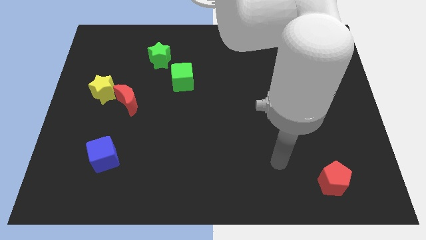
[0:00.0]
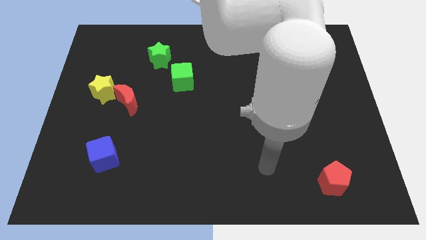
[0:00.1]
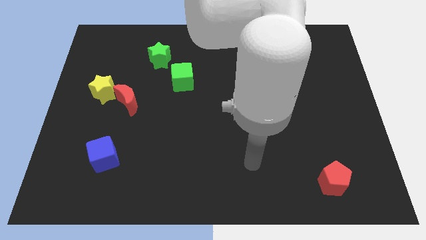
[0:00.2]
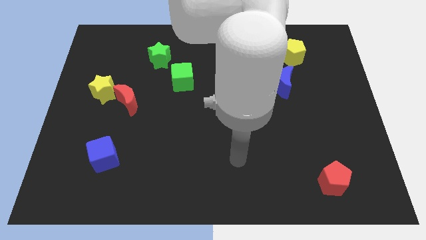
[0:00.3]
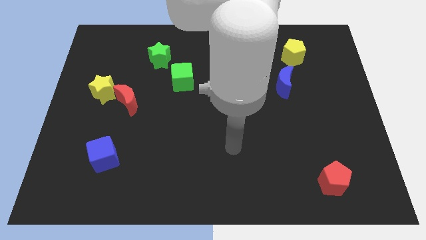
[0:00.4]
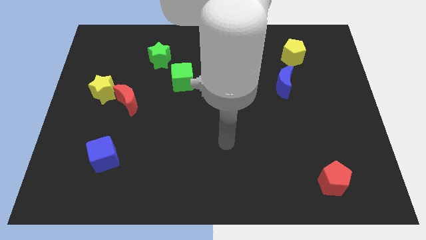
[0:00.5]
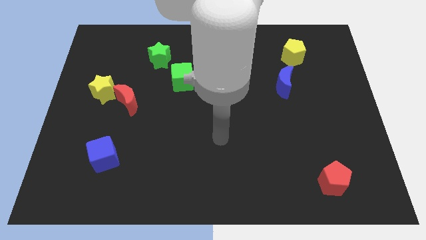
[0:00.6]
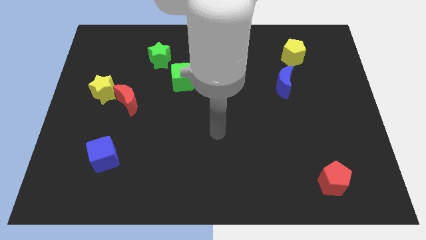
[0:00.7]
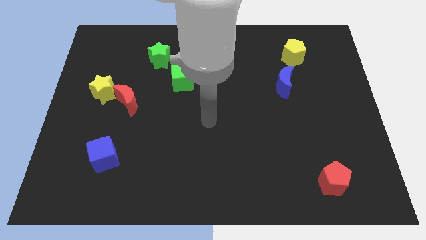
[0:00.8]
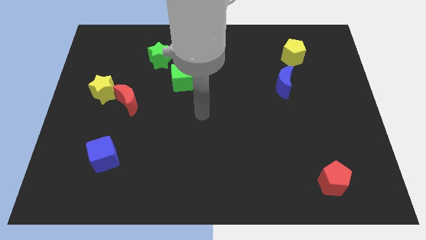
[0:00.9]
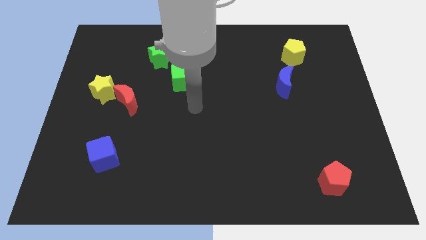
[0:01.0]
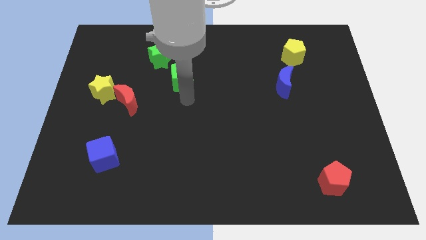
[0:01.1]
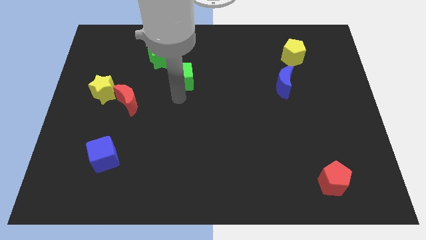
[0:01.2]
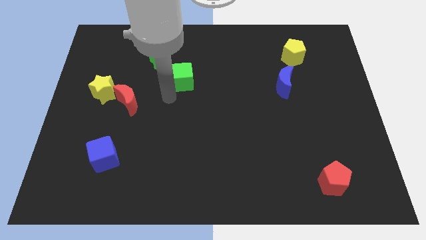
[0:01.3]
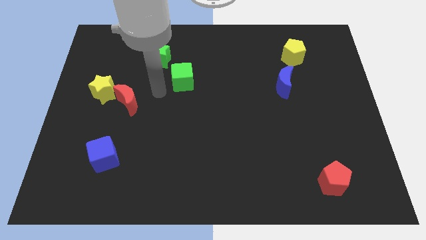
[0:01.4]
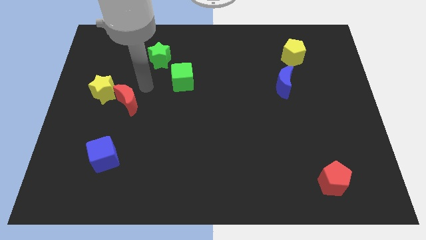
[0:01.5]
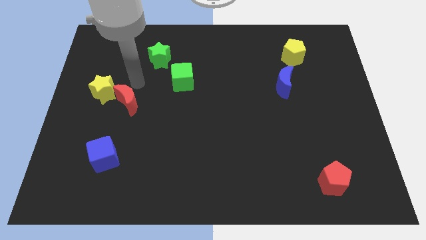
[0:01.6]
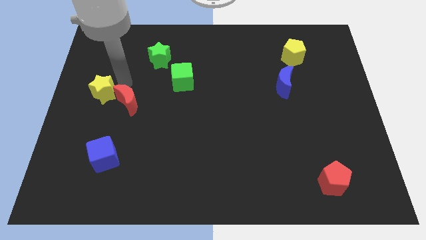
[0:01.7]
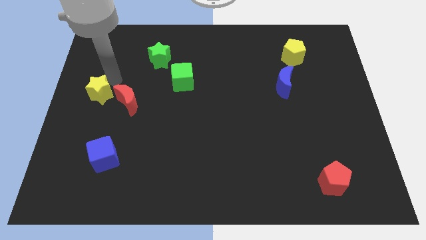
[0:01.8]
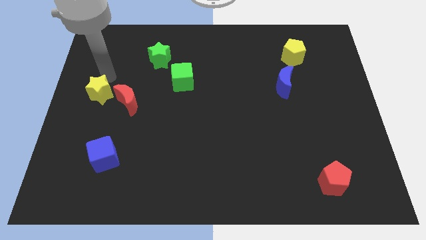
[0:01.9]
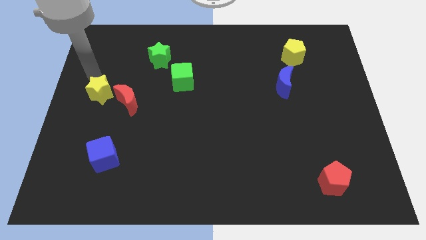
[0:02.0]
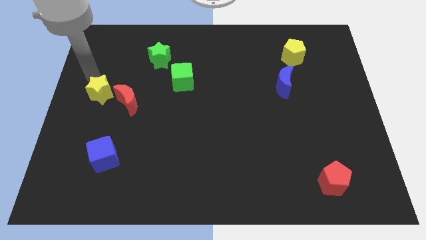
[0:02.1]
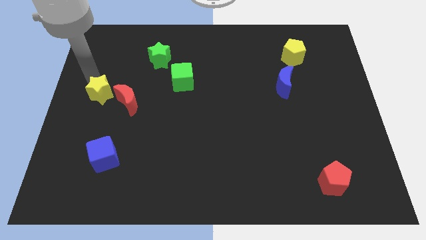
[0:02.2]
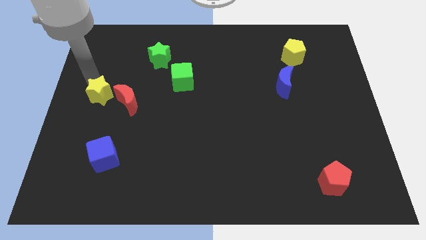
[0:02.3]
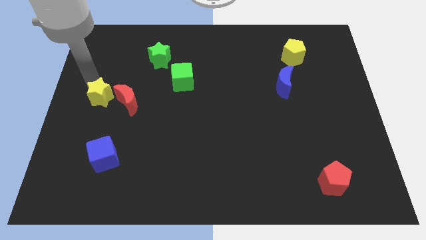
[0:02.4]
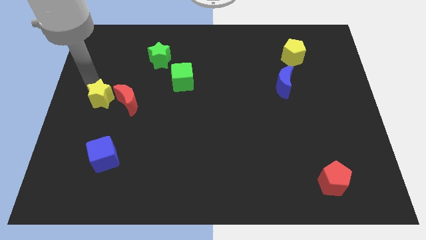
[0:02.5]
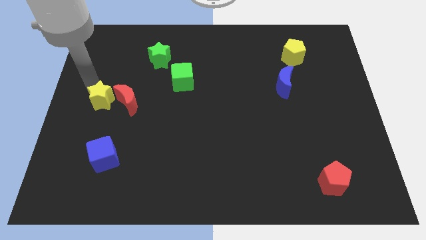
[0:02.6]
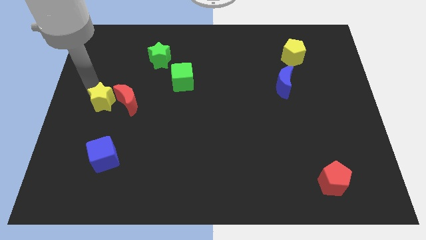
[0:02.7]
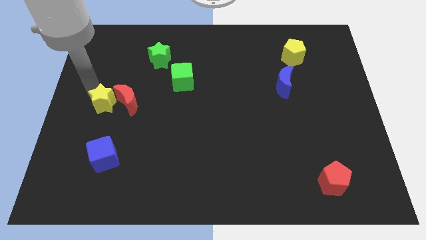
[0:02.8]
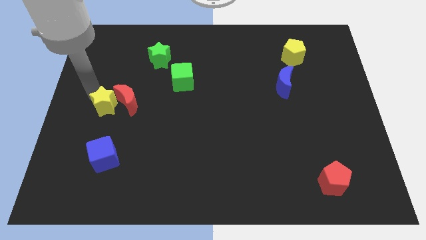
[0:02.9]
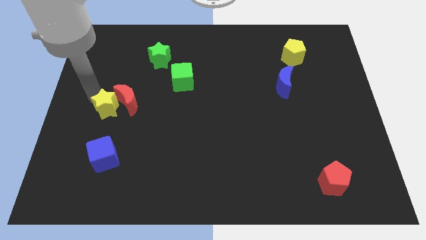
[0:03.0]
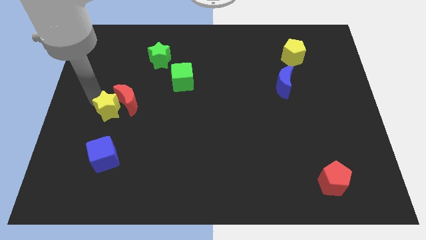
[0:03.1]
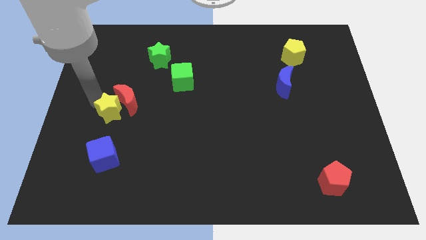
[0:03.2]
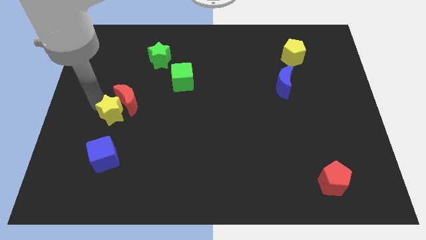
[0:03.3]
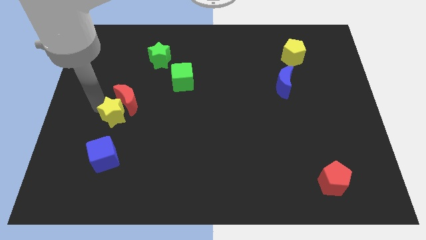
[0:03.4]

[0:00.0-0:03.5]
push the yellow star downwards and right slightly

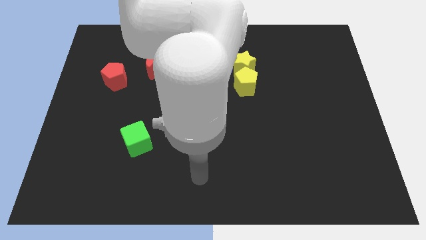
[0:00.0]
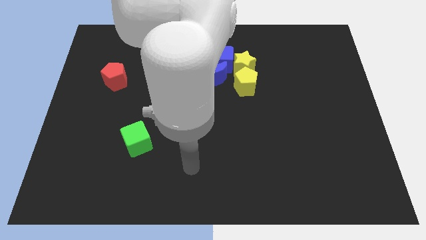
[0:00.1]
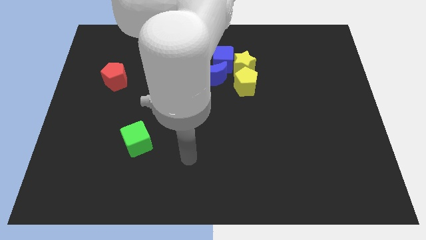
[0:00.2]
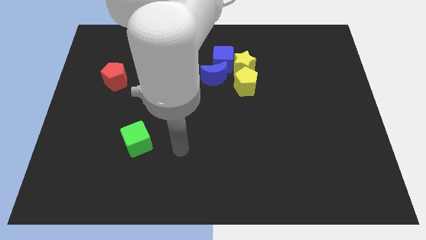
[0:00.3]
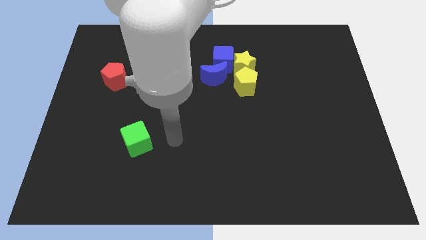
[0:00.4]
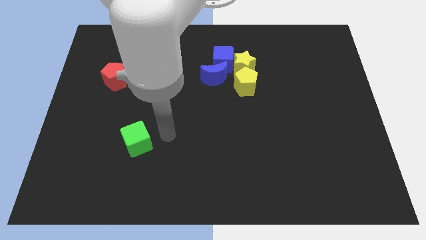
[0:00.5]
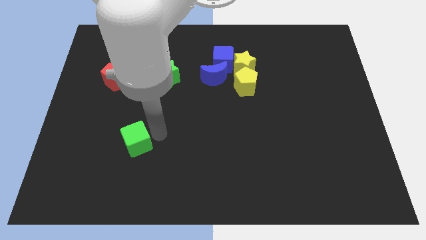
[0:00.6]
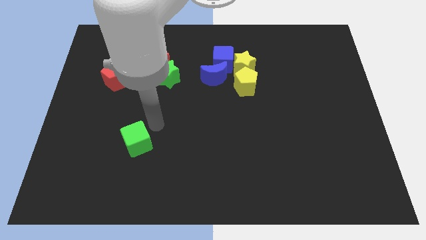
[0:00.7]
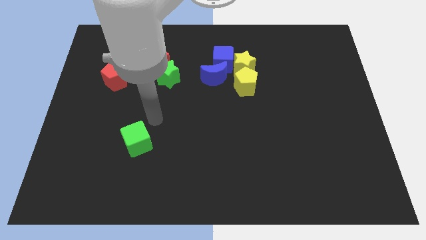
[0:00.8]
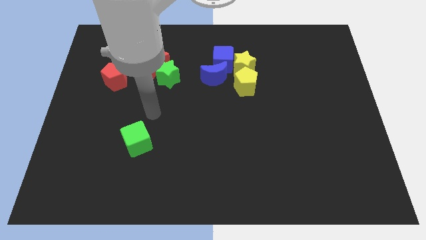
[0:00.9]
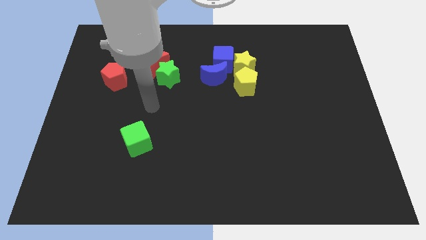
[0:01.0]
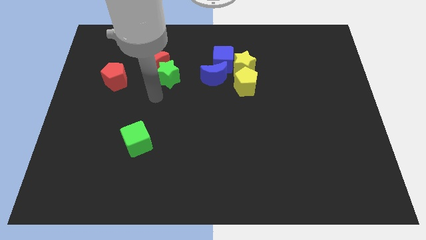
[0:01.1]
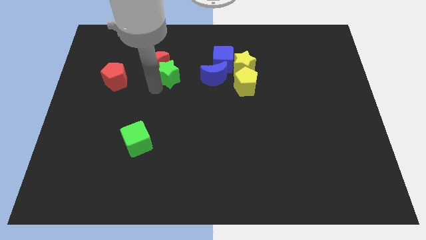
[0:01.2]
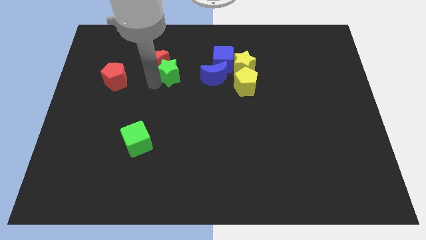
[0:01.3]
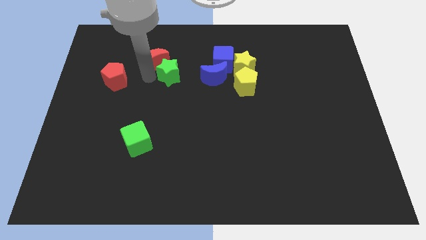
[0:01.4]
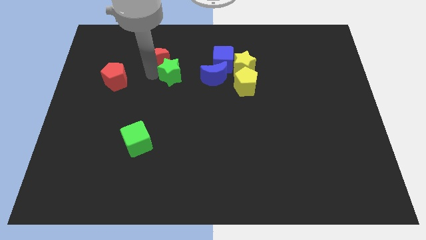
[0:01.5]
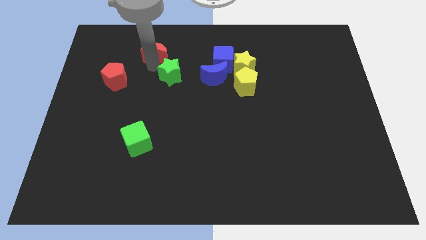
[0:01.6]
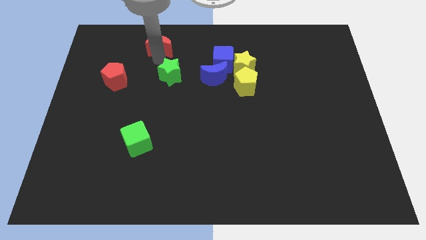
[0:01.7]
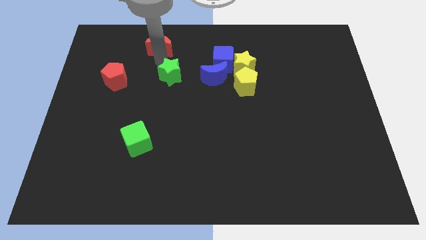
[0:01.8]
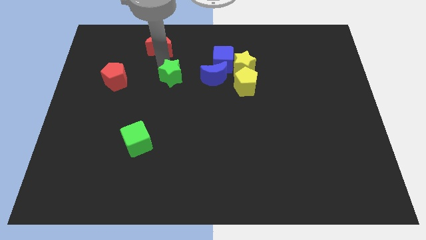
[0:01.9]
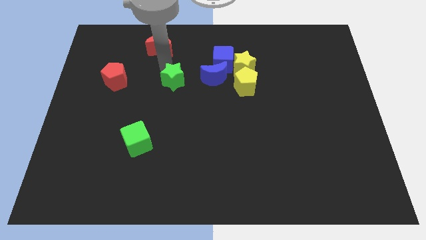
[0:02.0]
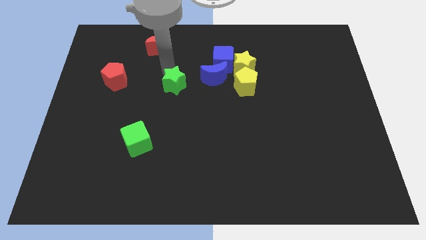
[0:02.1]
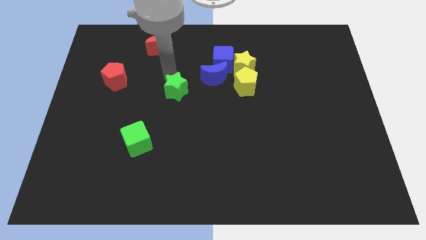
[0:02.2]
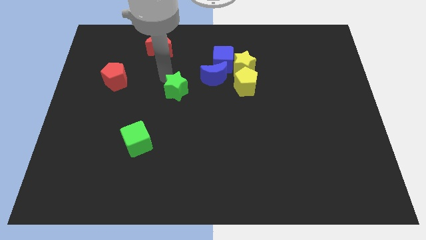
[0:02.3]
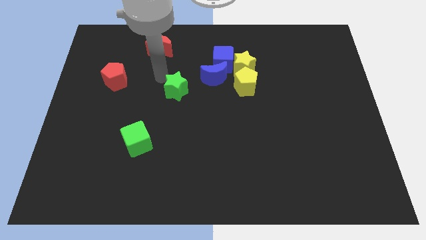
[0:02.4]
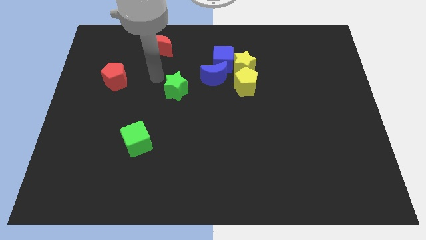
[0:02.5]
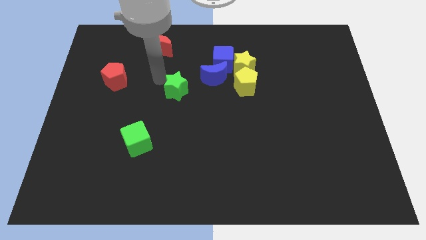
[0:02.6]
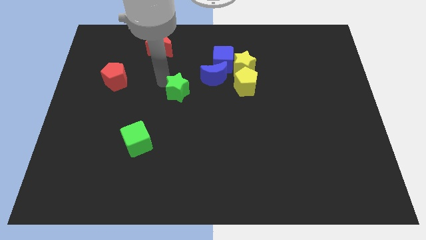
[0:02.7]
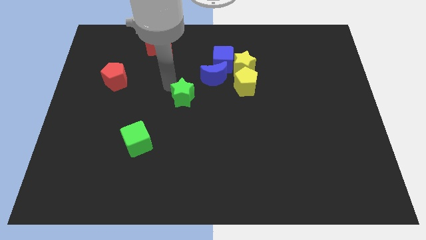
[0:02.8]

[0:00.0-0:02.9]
slightly move the green star downwards and to the right diagonally

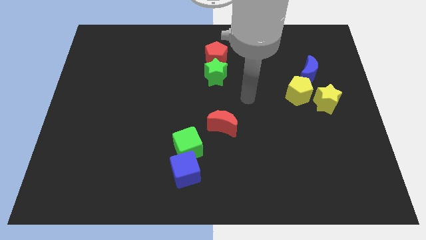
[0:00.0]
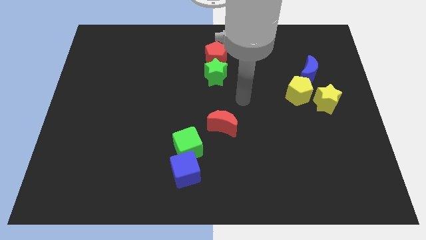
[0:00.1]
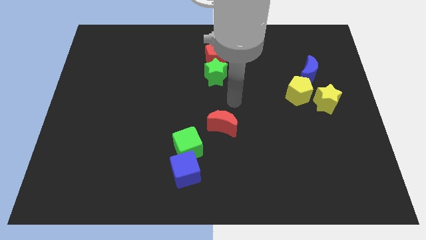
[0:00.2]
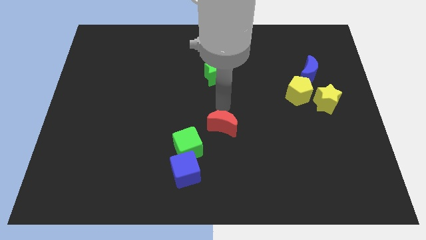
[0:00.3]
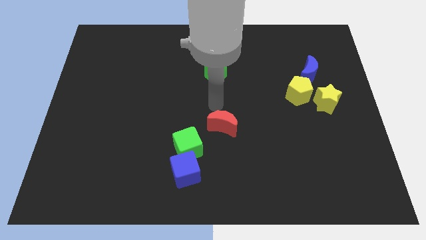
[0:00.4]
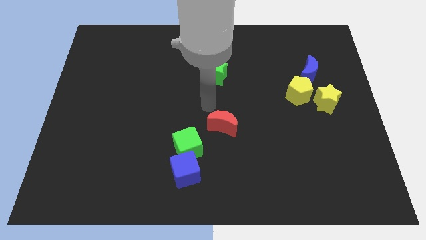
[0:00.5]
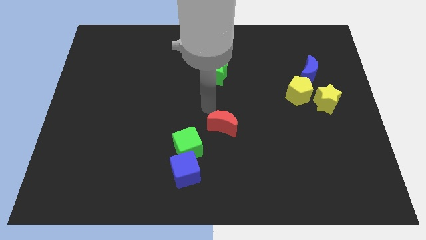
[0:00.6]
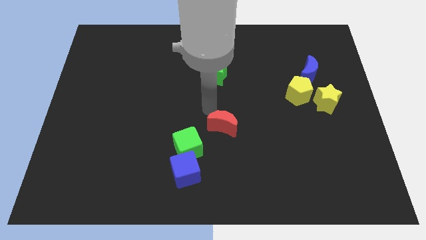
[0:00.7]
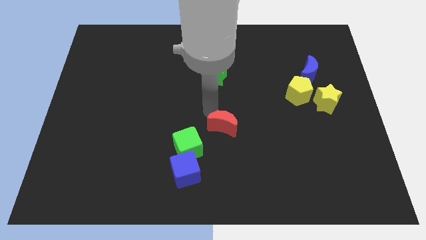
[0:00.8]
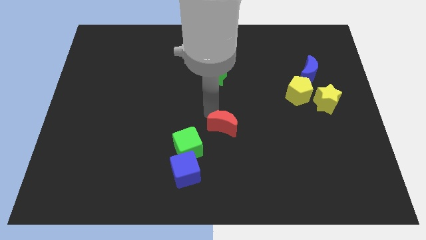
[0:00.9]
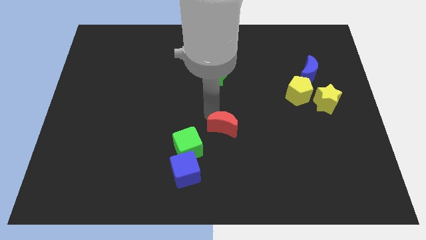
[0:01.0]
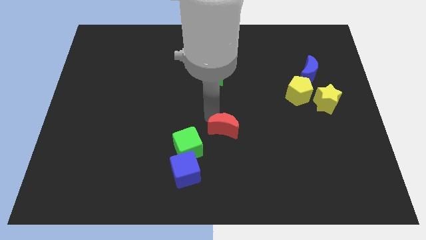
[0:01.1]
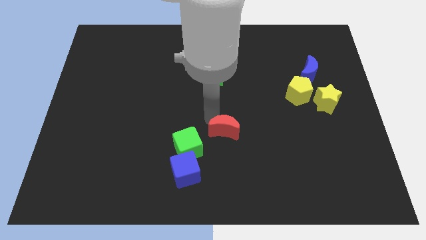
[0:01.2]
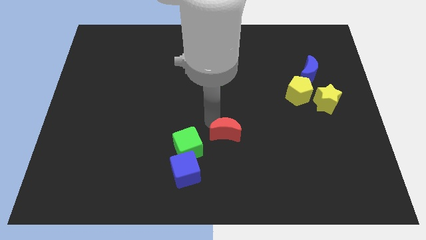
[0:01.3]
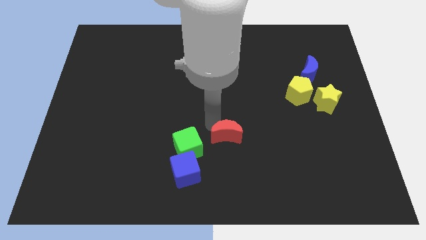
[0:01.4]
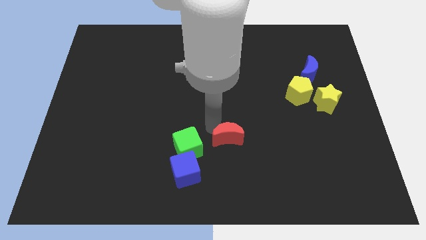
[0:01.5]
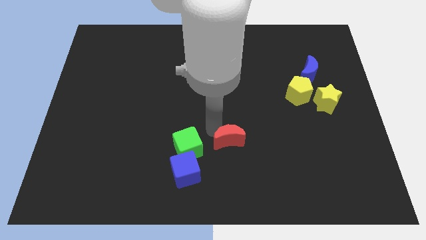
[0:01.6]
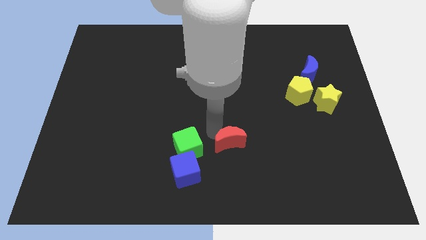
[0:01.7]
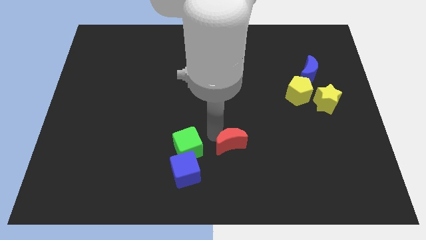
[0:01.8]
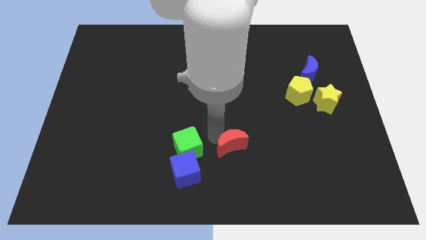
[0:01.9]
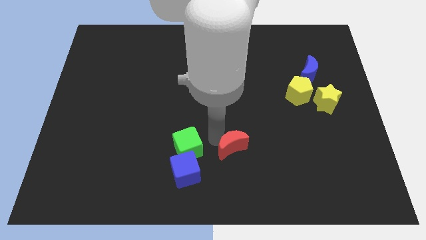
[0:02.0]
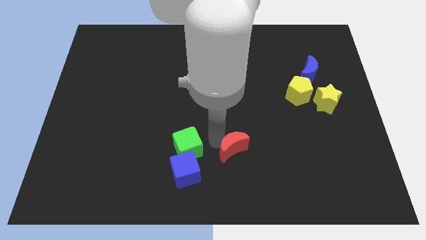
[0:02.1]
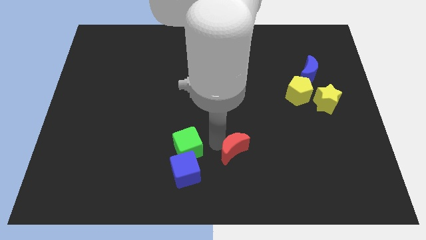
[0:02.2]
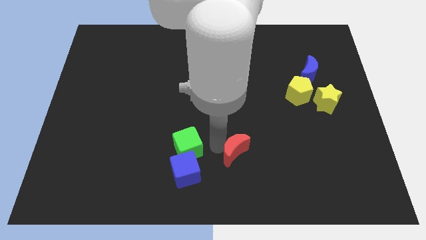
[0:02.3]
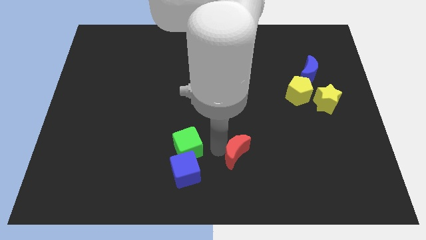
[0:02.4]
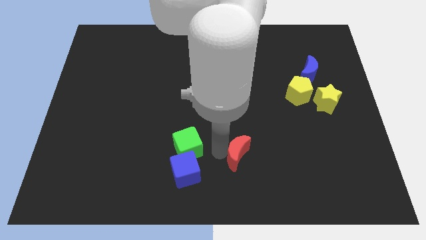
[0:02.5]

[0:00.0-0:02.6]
move the red moon a bit down and to the right diagonally
